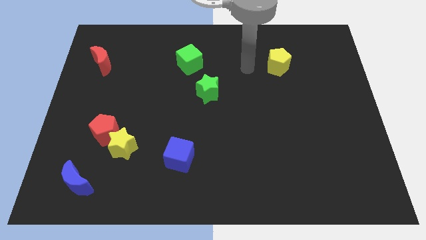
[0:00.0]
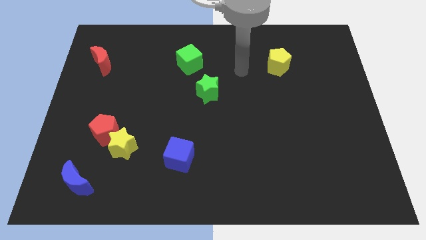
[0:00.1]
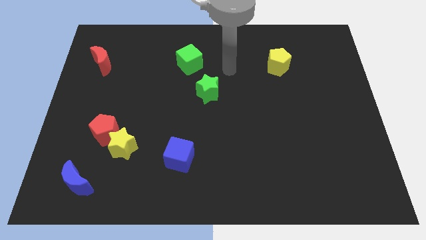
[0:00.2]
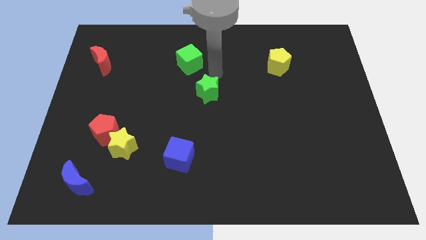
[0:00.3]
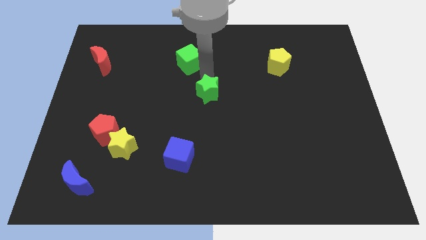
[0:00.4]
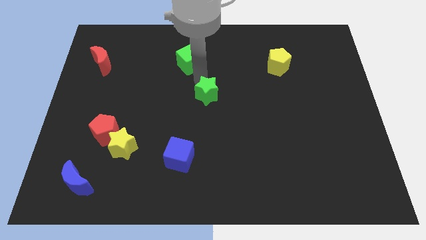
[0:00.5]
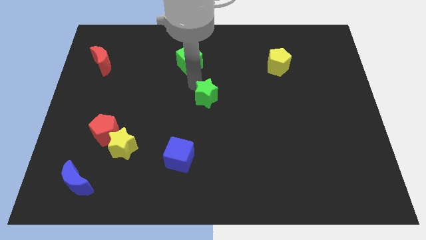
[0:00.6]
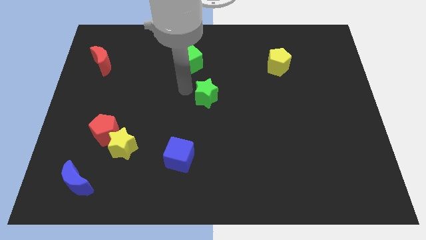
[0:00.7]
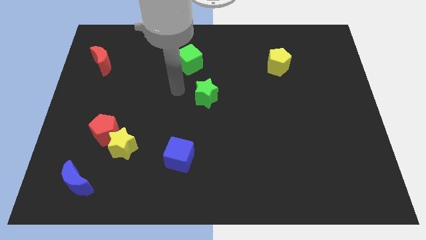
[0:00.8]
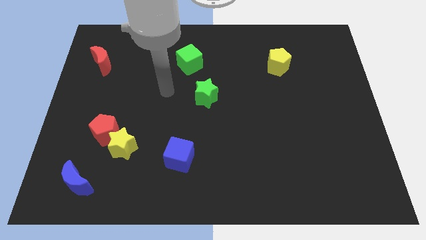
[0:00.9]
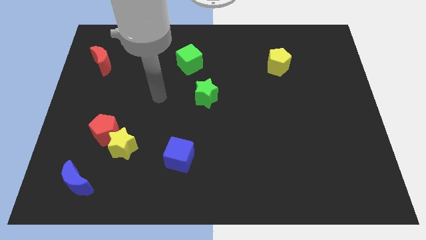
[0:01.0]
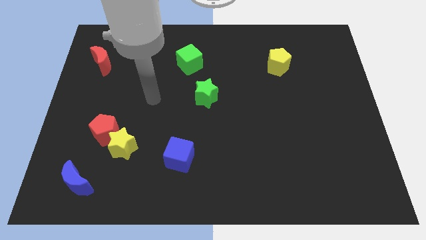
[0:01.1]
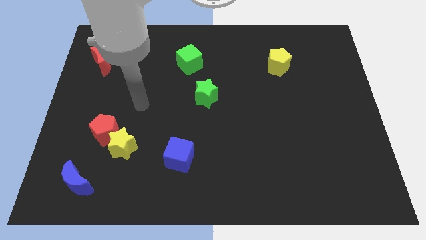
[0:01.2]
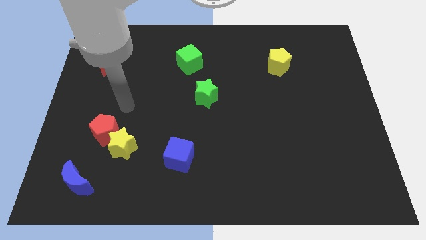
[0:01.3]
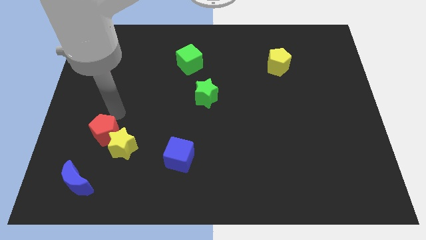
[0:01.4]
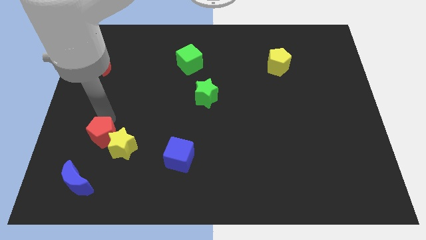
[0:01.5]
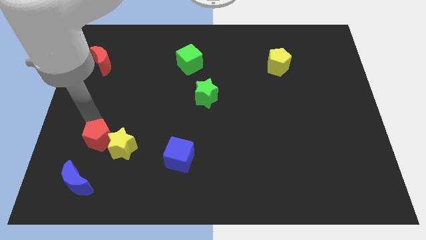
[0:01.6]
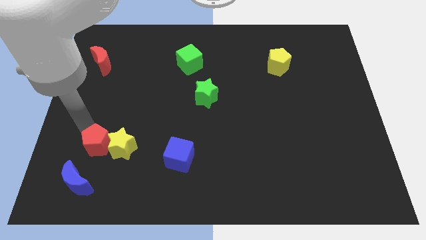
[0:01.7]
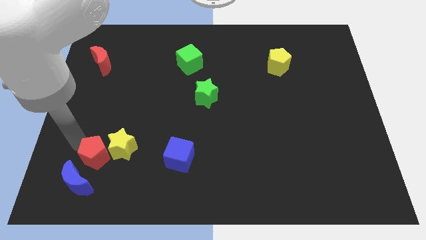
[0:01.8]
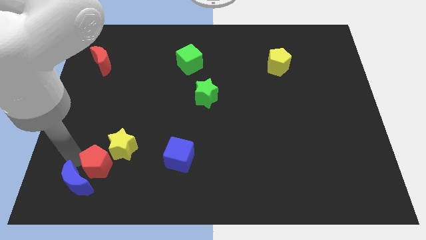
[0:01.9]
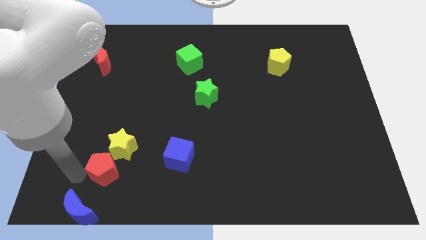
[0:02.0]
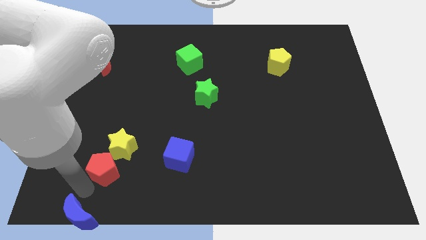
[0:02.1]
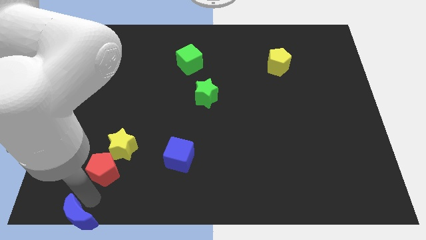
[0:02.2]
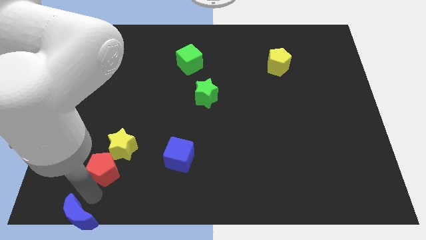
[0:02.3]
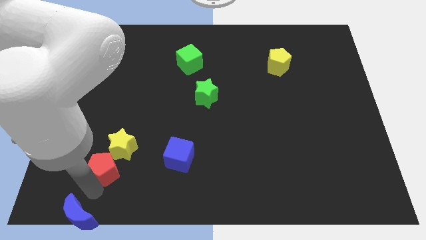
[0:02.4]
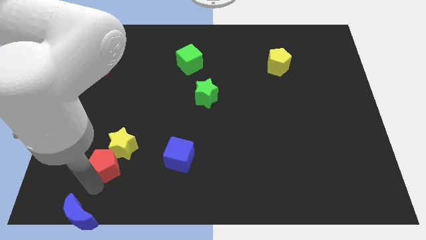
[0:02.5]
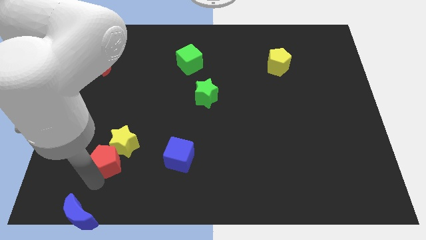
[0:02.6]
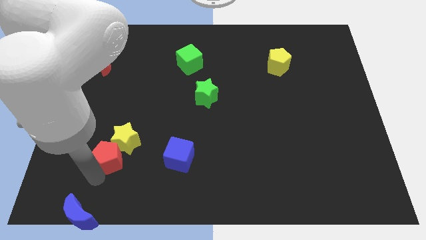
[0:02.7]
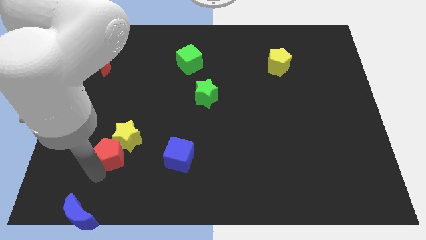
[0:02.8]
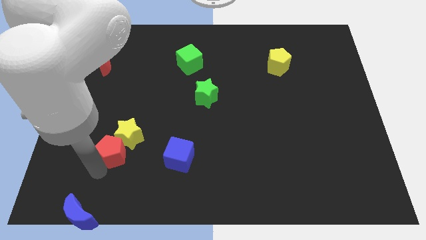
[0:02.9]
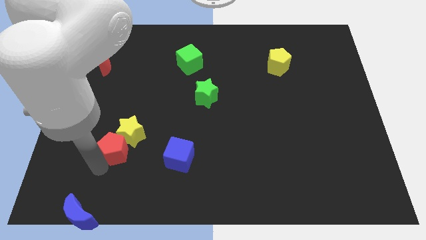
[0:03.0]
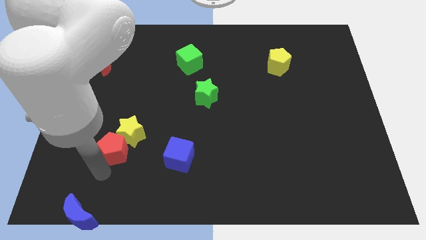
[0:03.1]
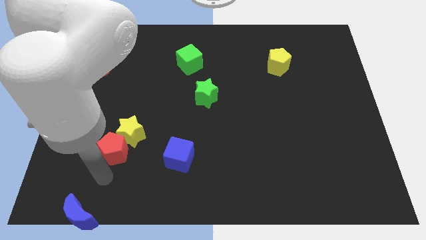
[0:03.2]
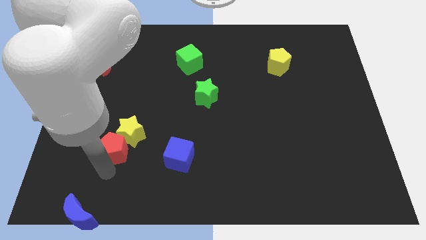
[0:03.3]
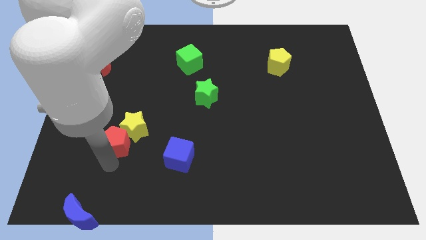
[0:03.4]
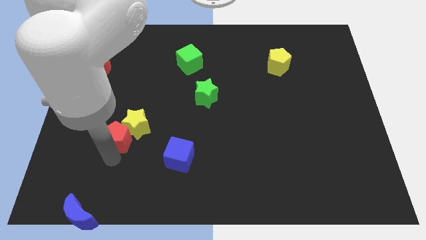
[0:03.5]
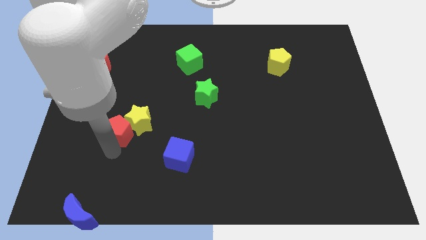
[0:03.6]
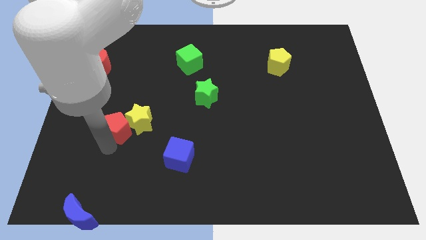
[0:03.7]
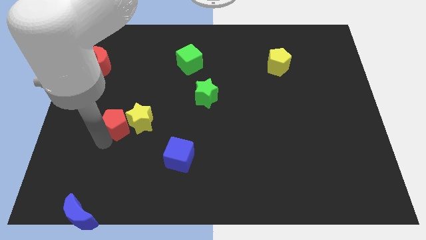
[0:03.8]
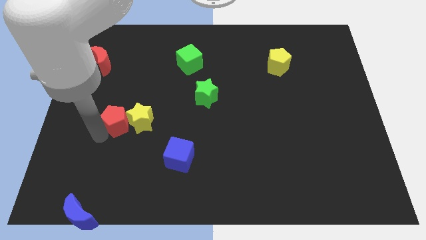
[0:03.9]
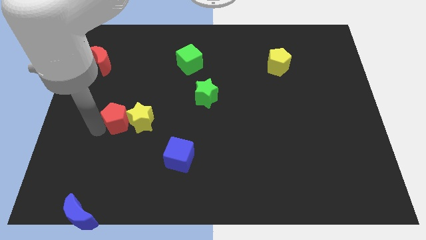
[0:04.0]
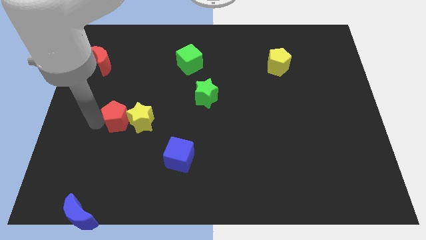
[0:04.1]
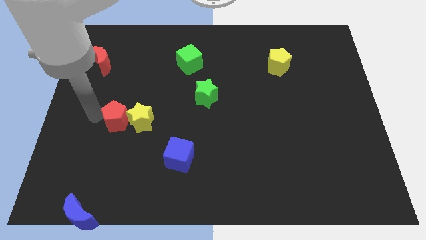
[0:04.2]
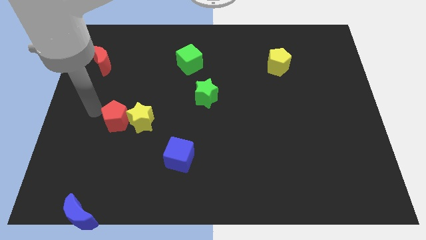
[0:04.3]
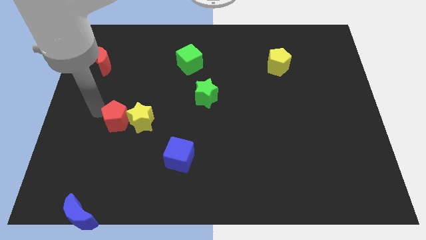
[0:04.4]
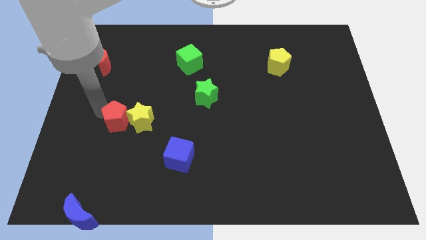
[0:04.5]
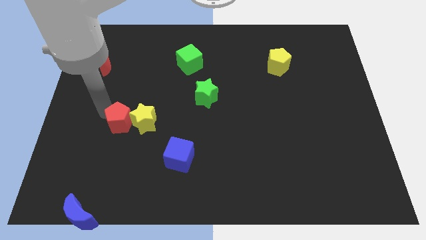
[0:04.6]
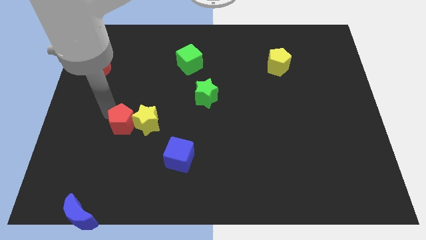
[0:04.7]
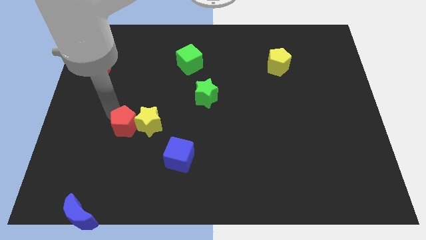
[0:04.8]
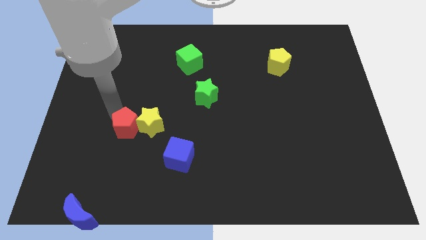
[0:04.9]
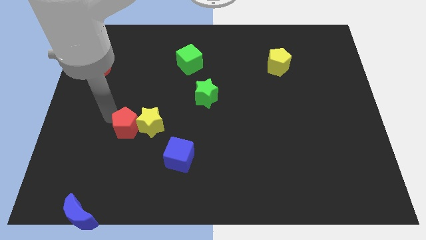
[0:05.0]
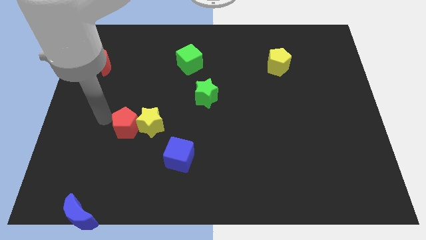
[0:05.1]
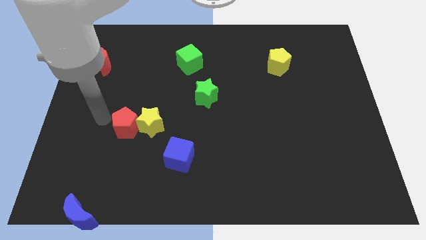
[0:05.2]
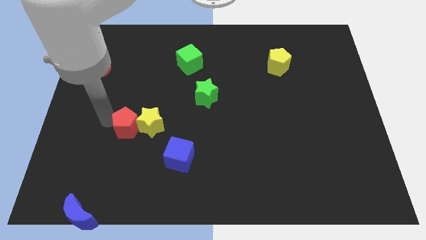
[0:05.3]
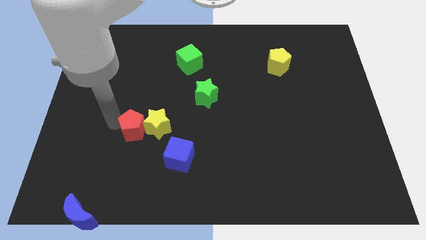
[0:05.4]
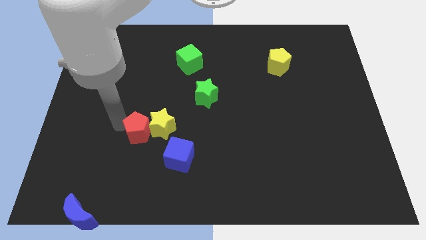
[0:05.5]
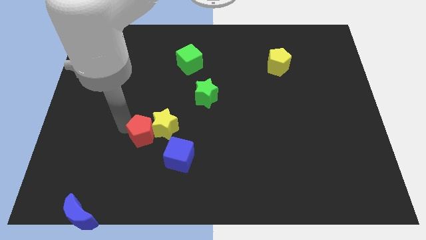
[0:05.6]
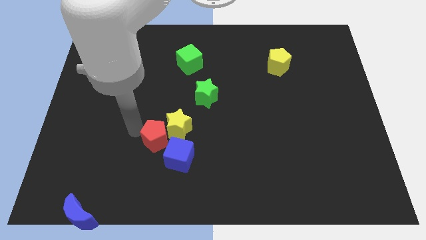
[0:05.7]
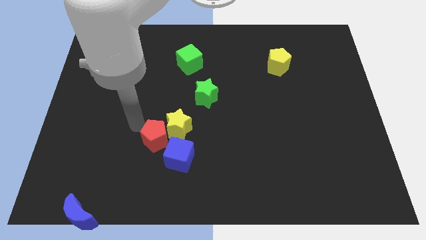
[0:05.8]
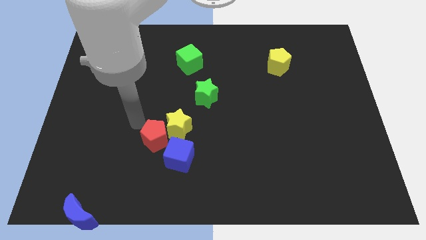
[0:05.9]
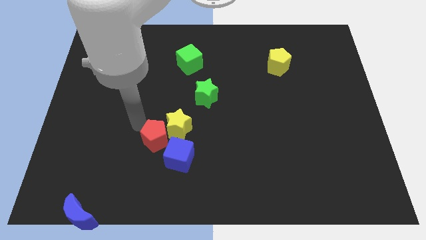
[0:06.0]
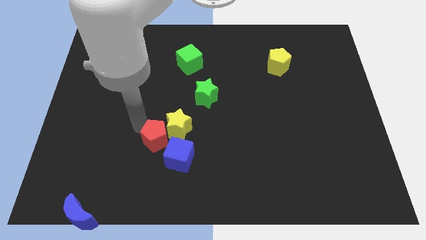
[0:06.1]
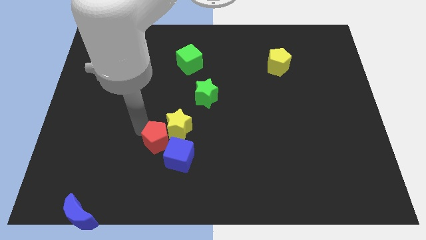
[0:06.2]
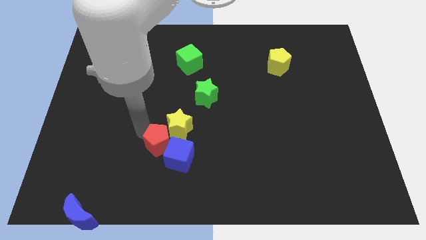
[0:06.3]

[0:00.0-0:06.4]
put the red pentagon close to the blue cube
